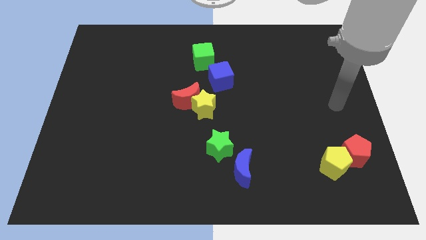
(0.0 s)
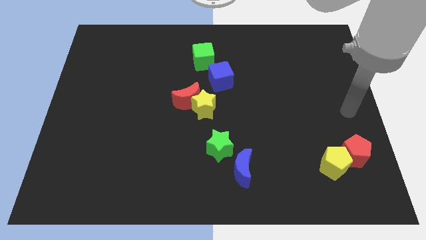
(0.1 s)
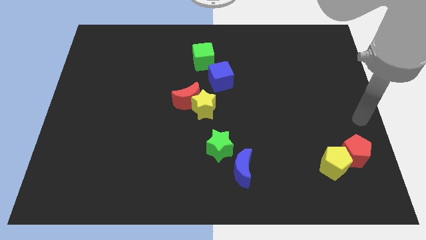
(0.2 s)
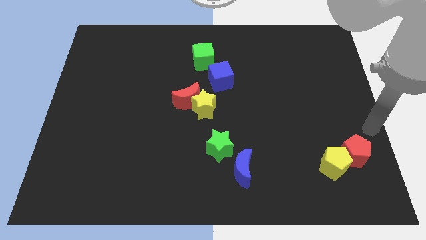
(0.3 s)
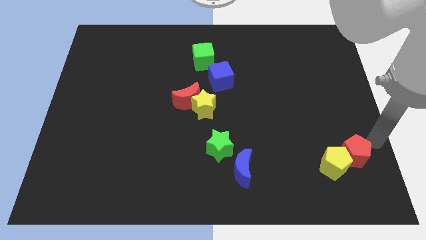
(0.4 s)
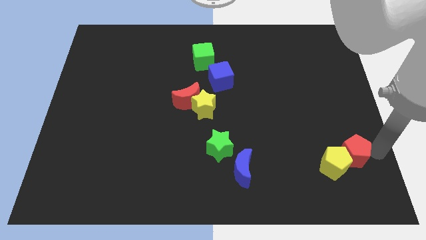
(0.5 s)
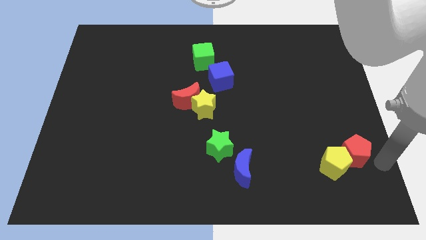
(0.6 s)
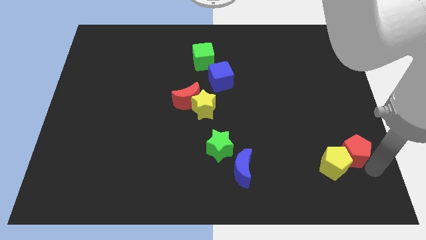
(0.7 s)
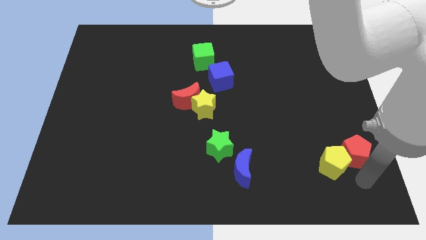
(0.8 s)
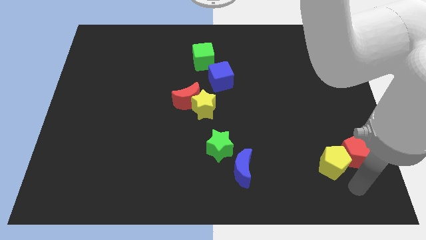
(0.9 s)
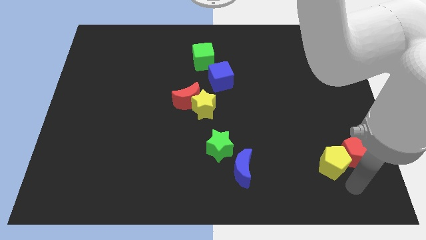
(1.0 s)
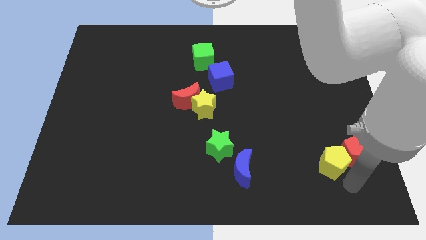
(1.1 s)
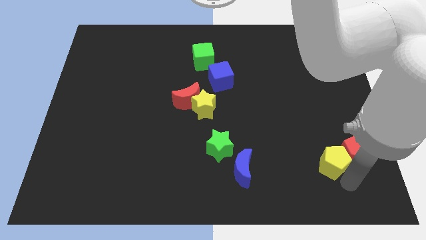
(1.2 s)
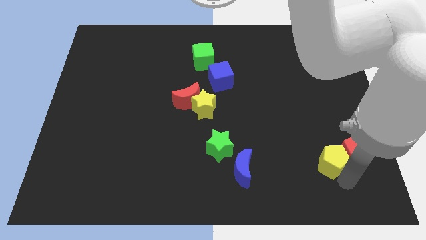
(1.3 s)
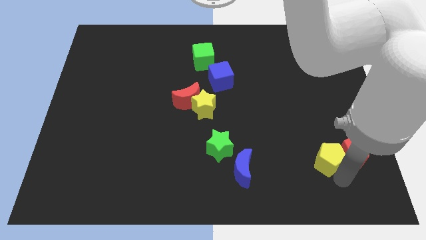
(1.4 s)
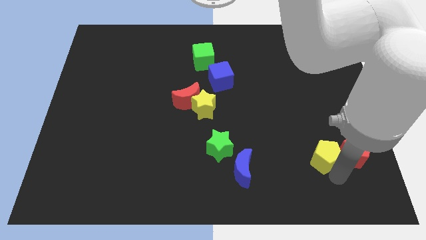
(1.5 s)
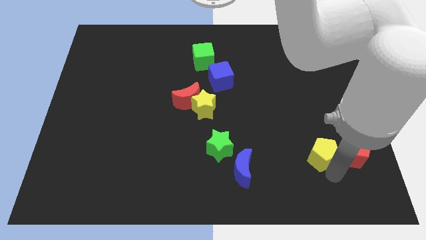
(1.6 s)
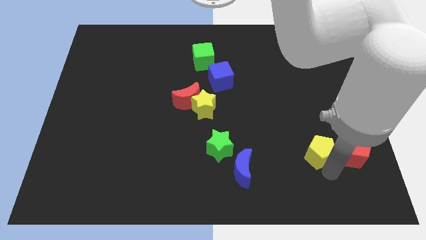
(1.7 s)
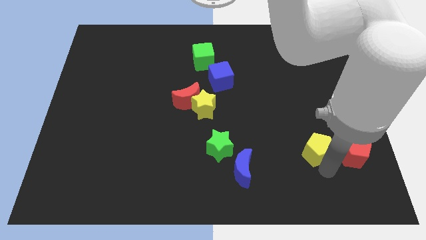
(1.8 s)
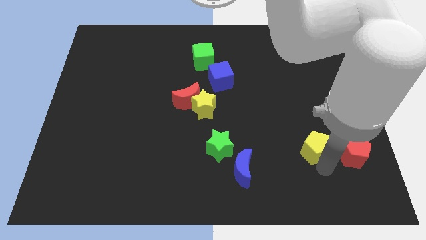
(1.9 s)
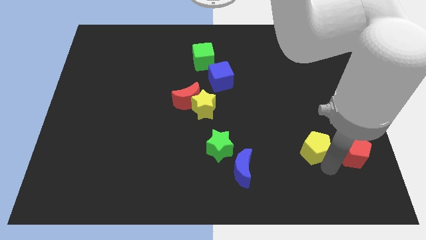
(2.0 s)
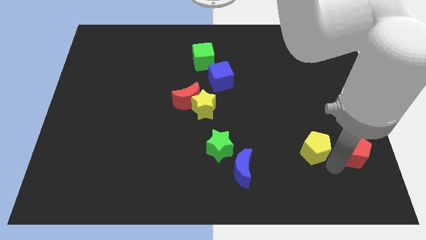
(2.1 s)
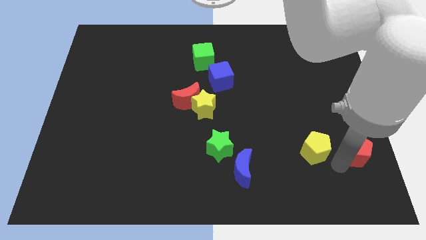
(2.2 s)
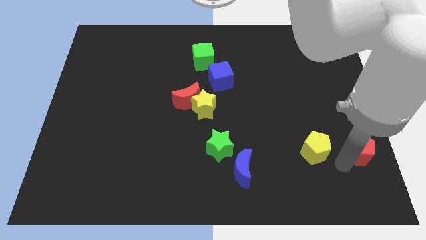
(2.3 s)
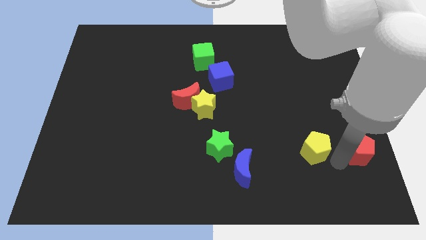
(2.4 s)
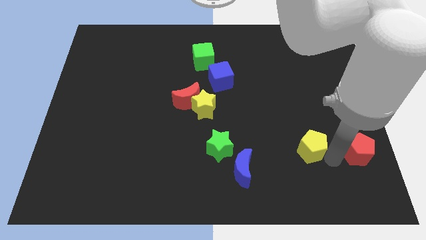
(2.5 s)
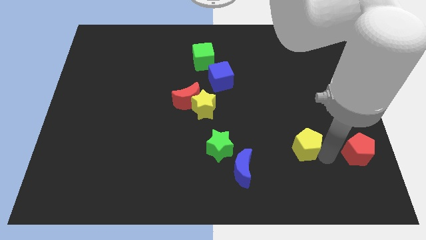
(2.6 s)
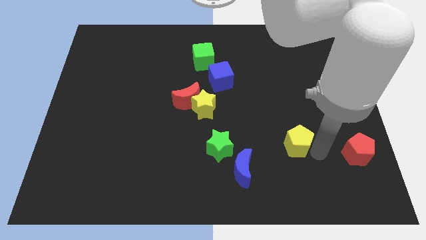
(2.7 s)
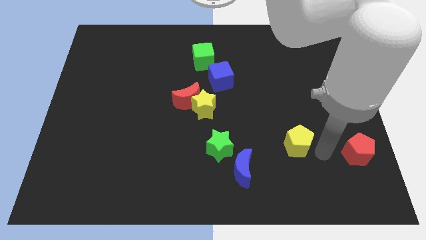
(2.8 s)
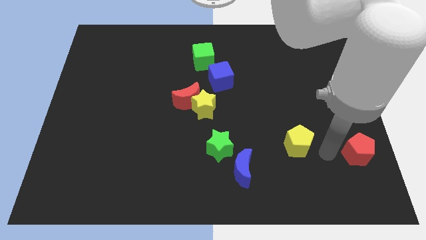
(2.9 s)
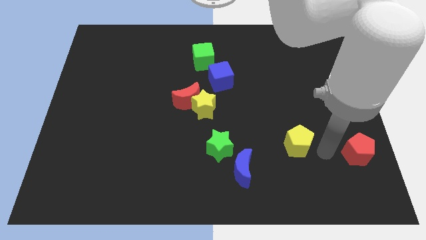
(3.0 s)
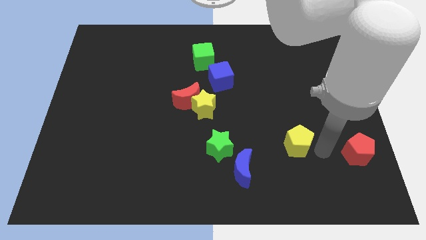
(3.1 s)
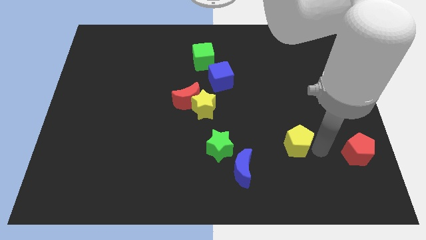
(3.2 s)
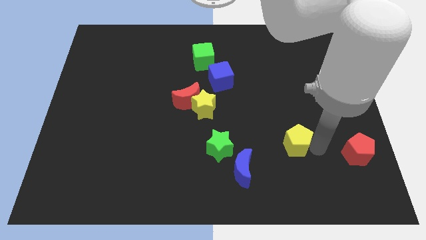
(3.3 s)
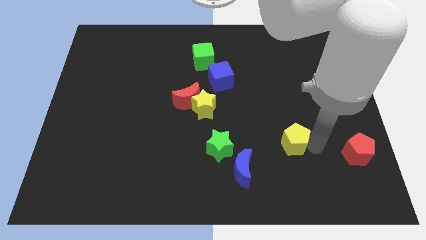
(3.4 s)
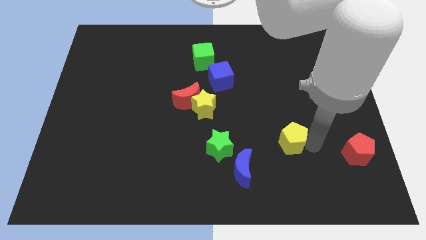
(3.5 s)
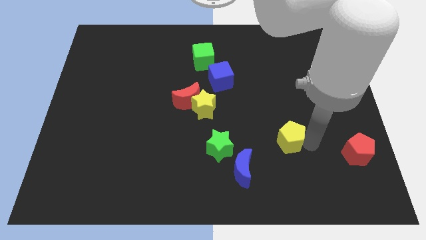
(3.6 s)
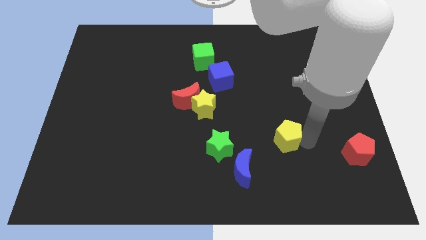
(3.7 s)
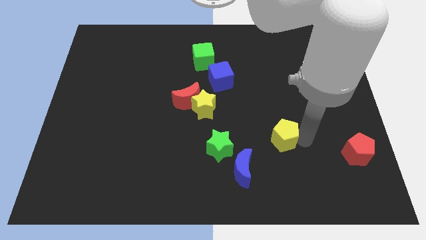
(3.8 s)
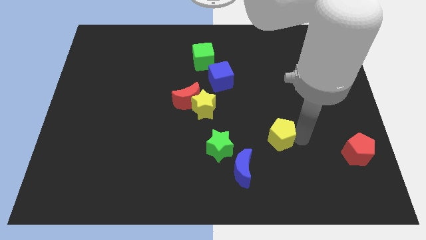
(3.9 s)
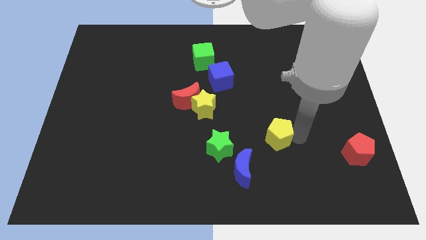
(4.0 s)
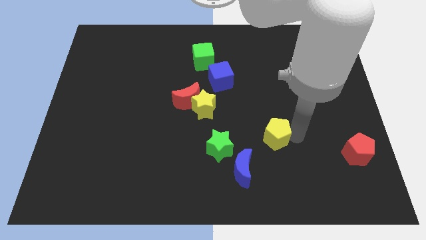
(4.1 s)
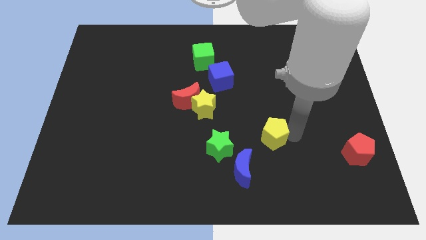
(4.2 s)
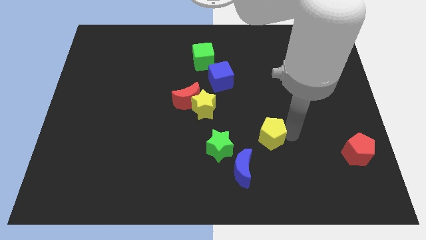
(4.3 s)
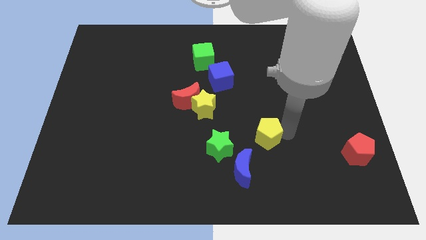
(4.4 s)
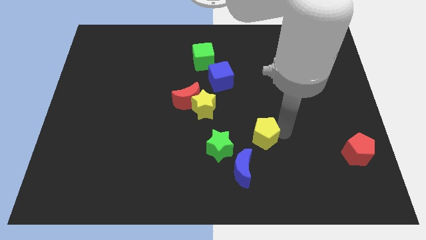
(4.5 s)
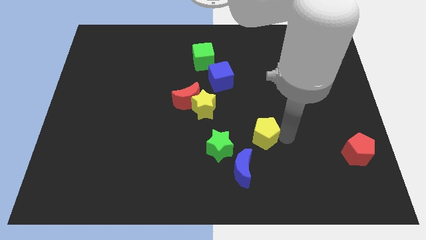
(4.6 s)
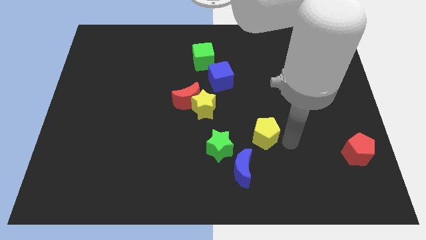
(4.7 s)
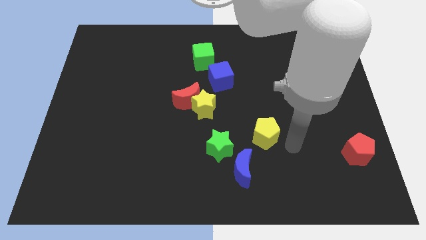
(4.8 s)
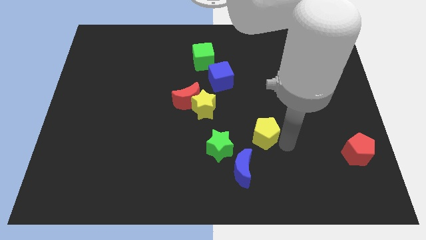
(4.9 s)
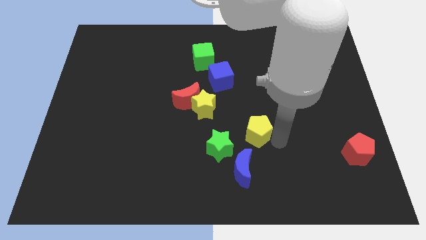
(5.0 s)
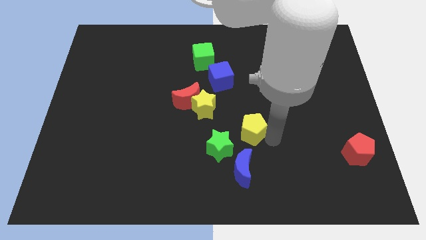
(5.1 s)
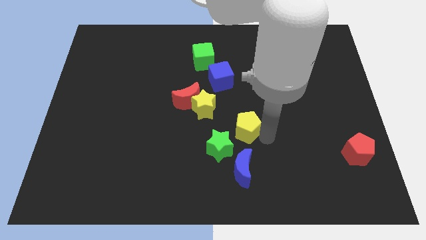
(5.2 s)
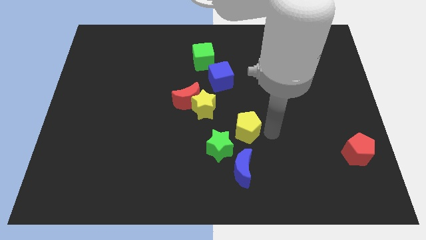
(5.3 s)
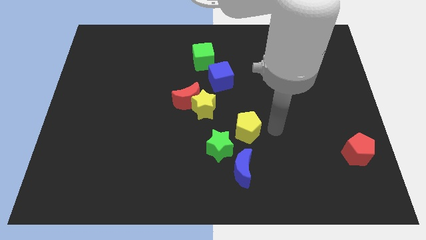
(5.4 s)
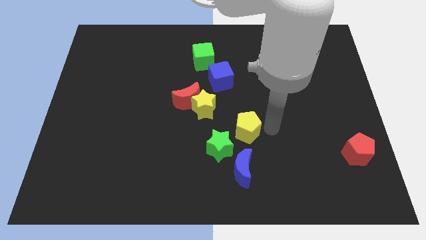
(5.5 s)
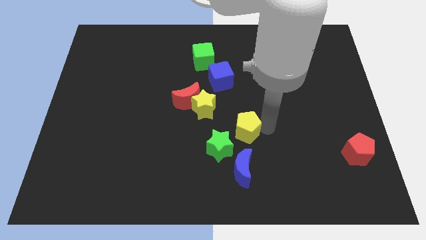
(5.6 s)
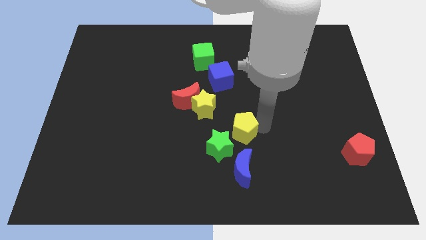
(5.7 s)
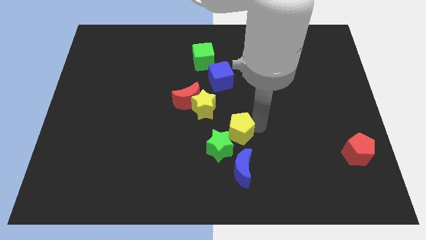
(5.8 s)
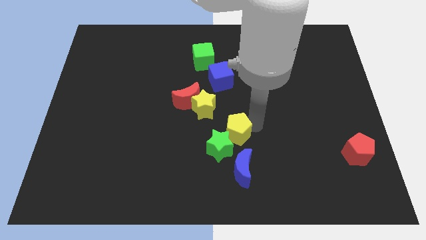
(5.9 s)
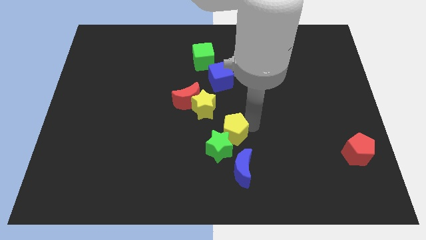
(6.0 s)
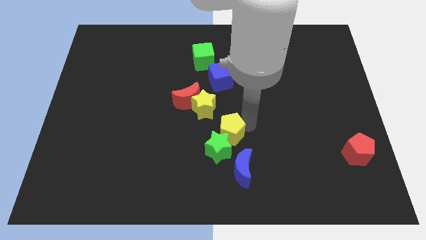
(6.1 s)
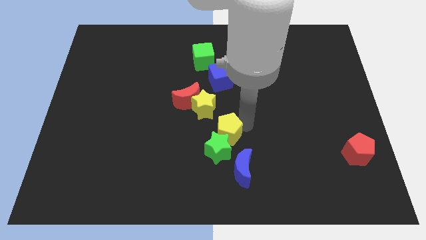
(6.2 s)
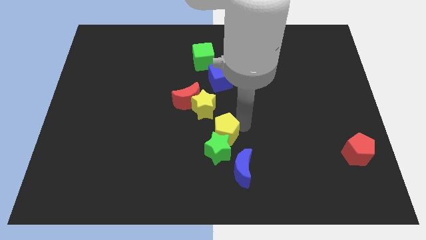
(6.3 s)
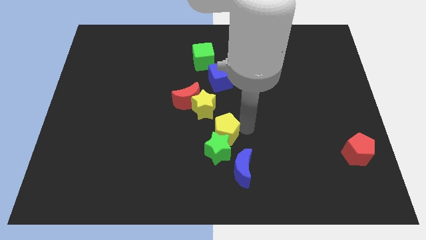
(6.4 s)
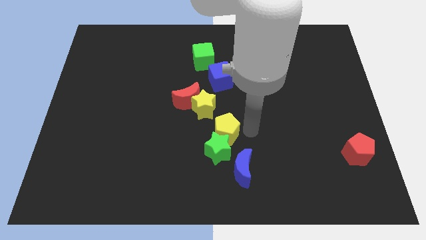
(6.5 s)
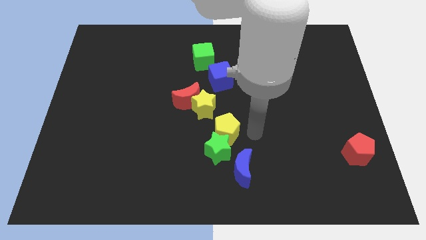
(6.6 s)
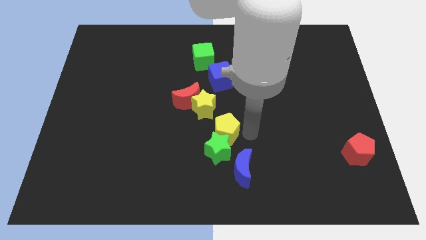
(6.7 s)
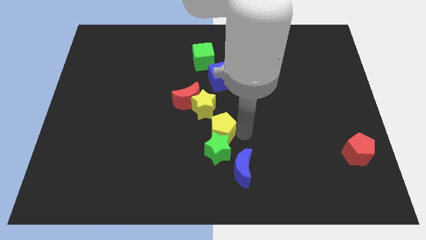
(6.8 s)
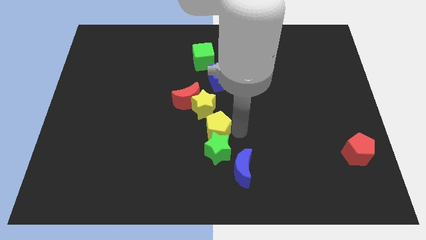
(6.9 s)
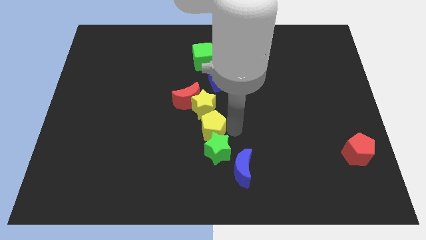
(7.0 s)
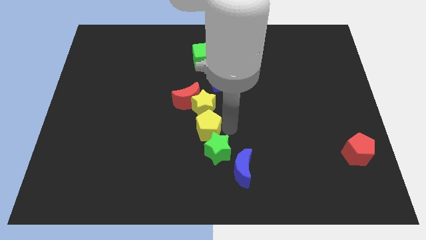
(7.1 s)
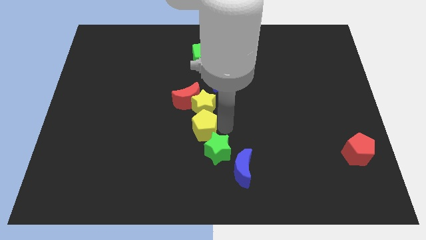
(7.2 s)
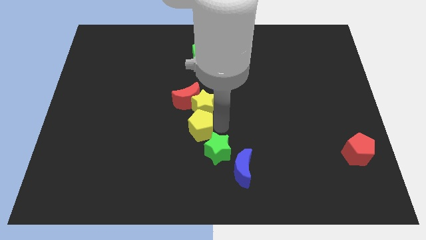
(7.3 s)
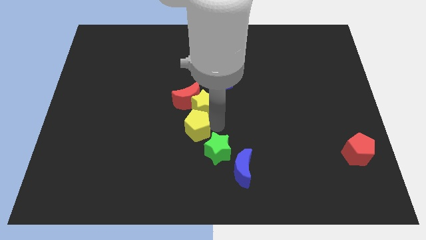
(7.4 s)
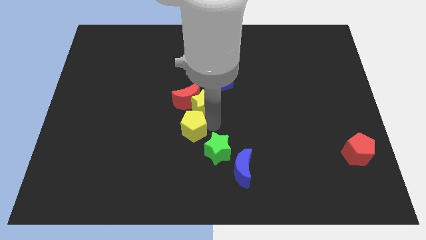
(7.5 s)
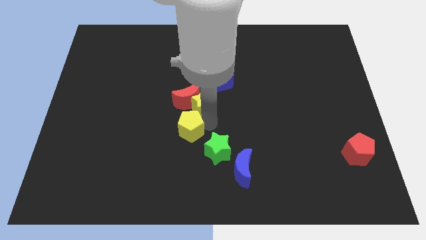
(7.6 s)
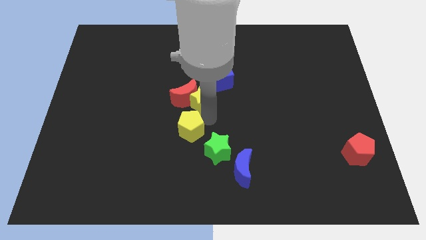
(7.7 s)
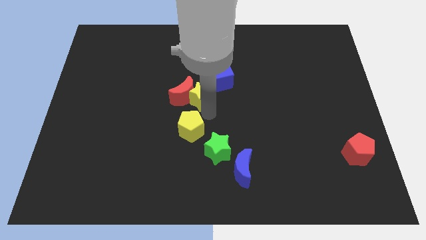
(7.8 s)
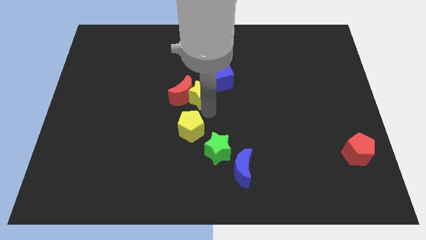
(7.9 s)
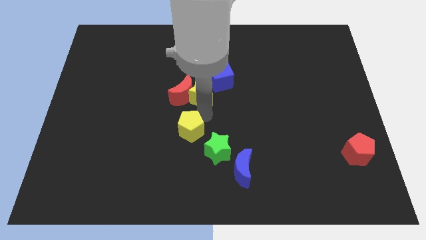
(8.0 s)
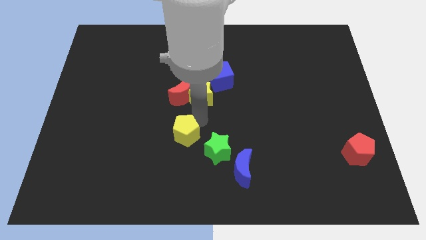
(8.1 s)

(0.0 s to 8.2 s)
push the yellow pentagon just left of the green star
